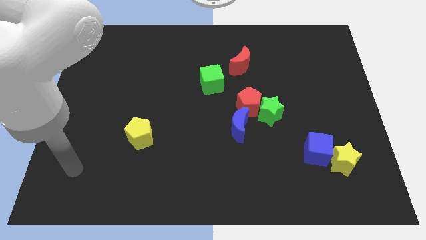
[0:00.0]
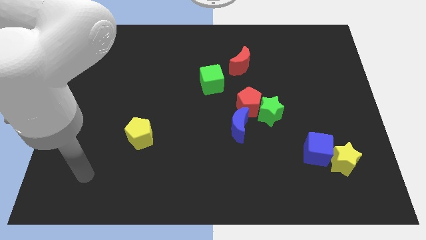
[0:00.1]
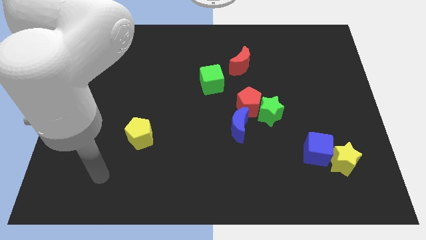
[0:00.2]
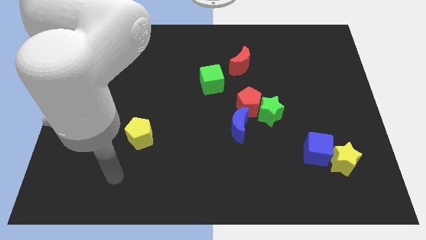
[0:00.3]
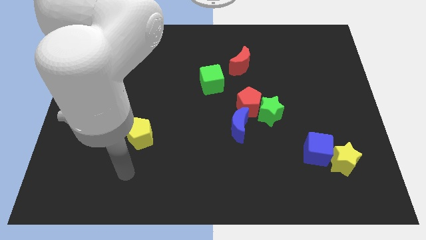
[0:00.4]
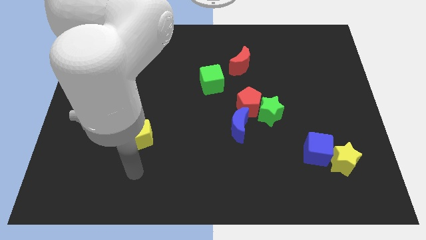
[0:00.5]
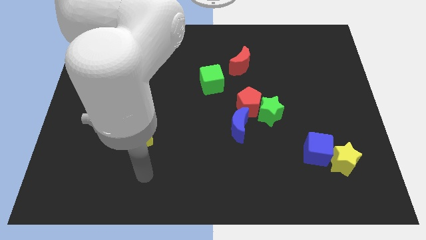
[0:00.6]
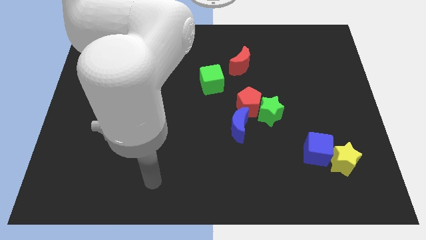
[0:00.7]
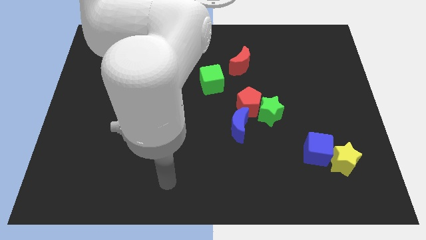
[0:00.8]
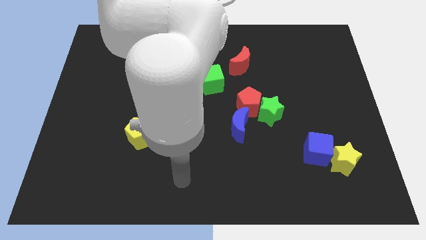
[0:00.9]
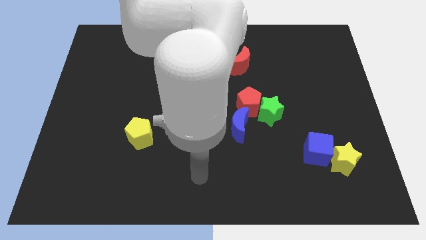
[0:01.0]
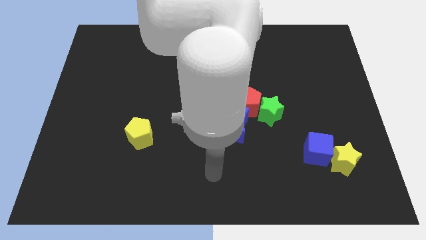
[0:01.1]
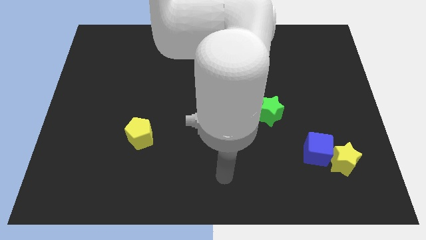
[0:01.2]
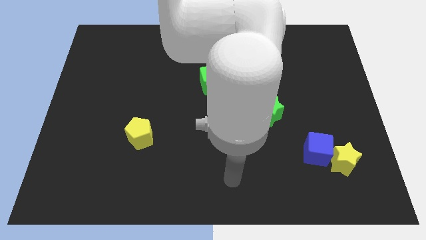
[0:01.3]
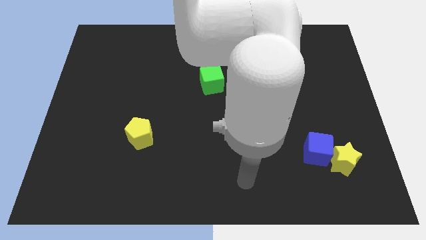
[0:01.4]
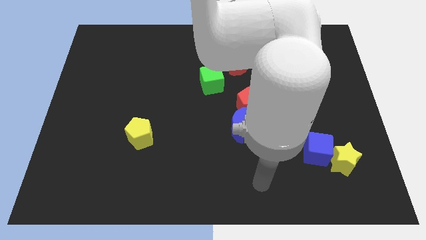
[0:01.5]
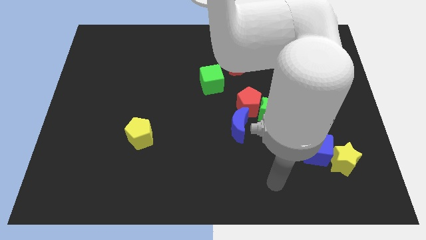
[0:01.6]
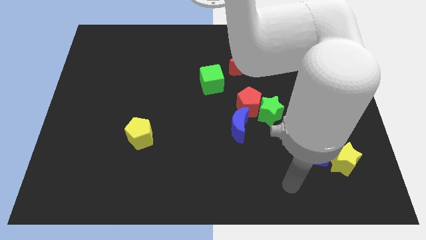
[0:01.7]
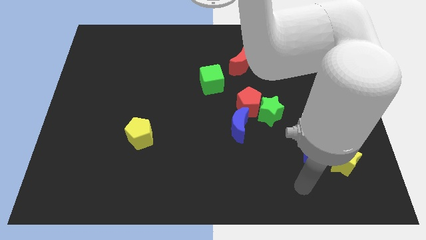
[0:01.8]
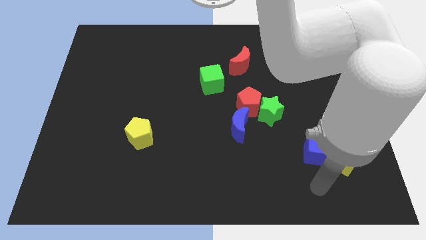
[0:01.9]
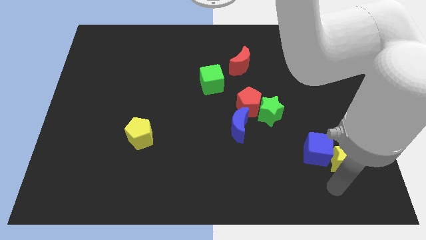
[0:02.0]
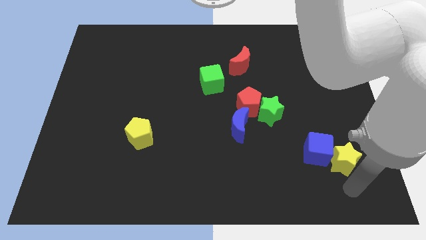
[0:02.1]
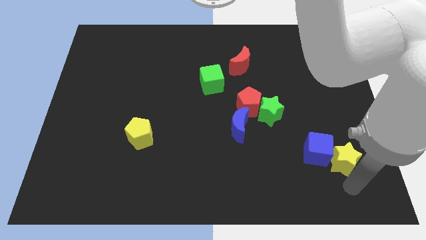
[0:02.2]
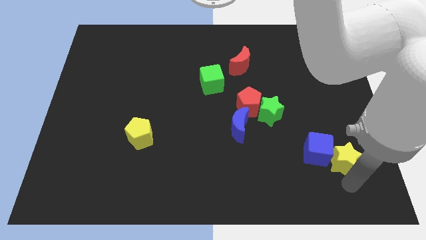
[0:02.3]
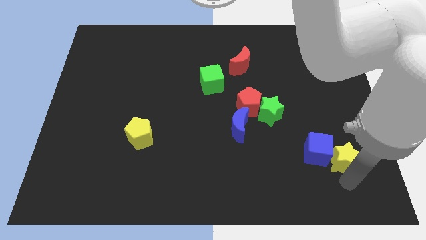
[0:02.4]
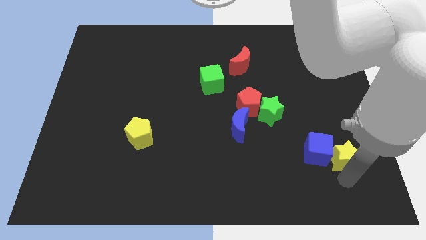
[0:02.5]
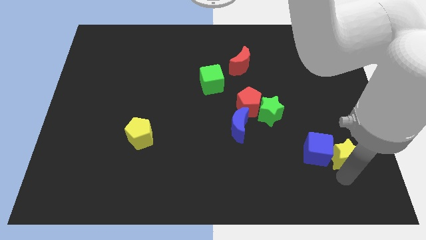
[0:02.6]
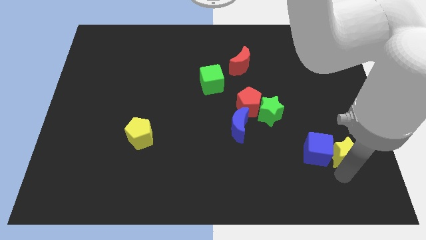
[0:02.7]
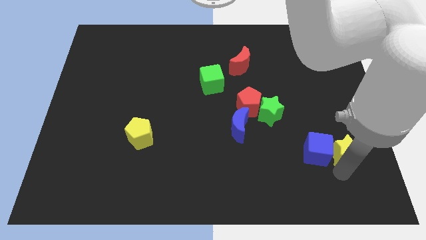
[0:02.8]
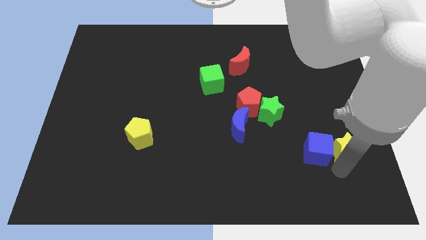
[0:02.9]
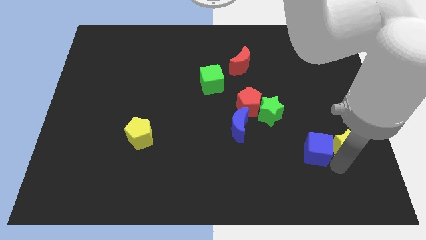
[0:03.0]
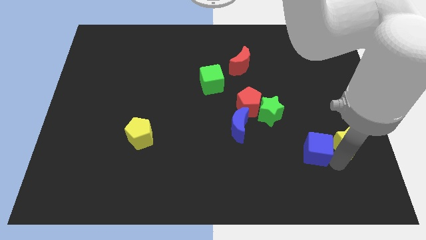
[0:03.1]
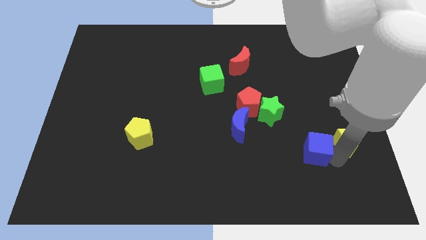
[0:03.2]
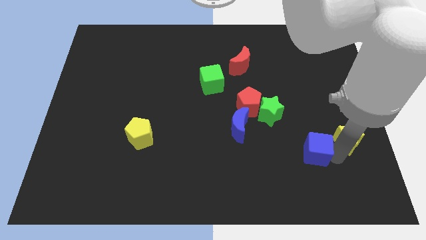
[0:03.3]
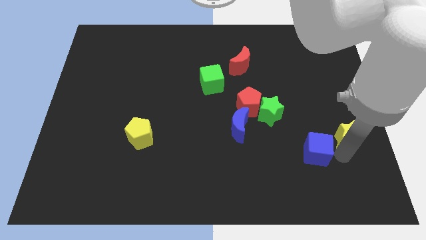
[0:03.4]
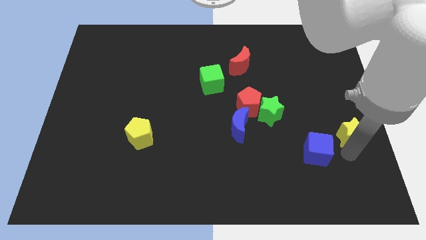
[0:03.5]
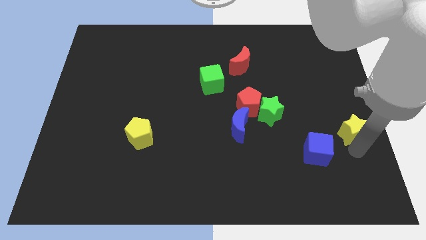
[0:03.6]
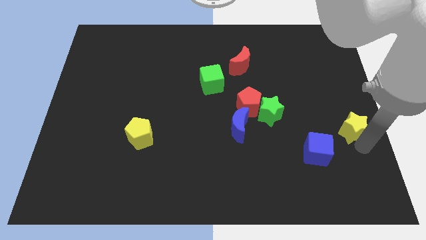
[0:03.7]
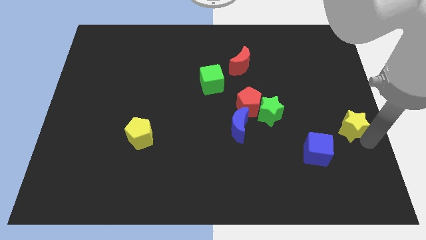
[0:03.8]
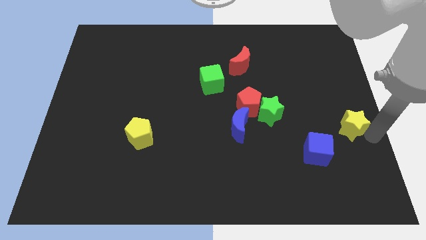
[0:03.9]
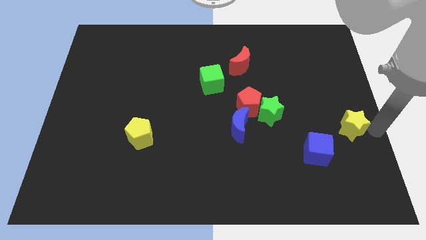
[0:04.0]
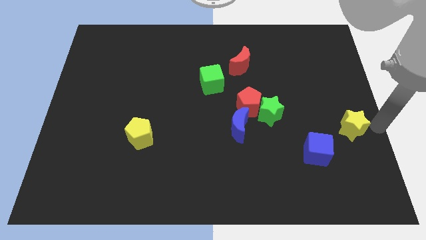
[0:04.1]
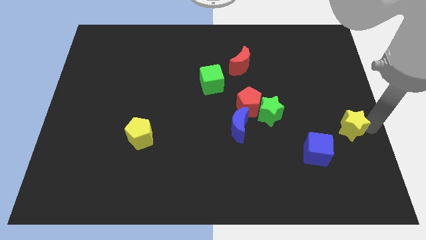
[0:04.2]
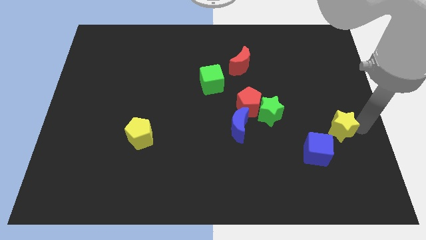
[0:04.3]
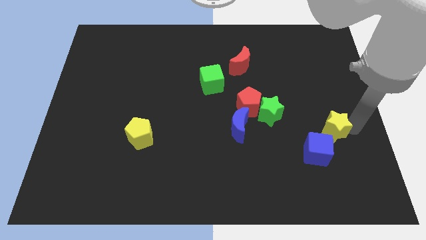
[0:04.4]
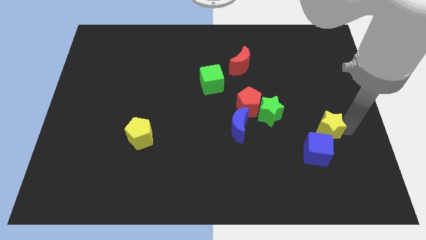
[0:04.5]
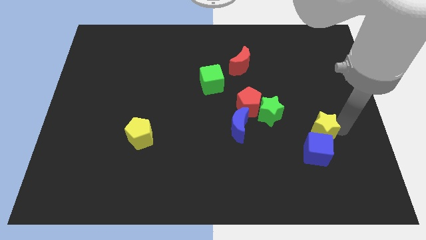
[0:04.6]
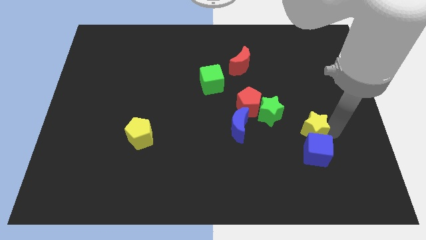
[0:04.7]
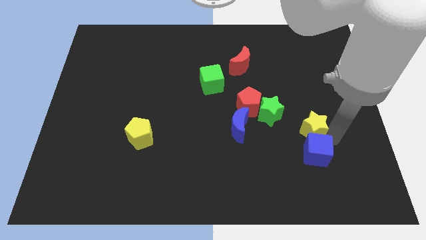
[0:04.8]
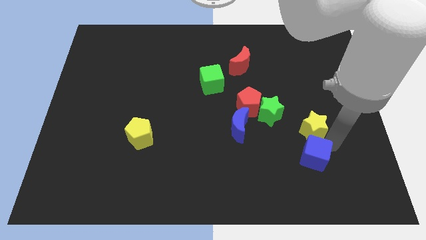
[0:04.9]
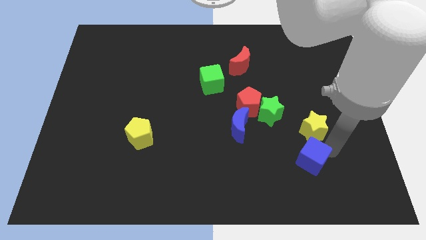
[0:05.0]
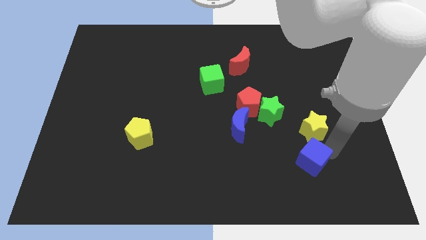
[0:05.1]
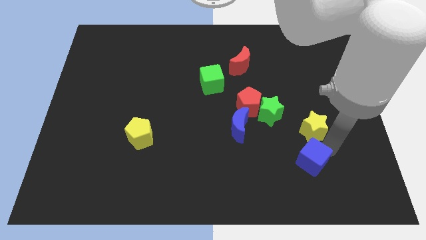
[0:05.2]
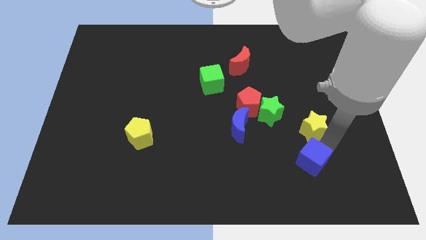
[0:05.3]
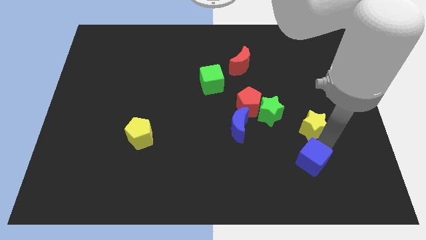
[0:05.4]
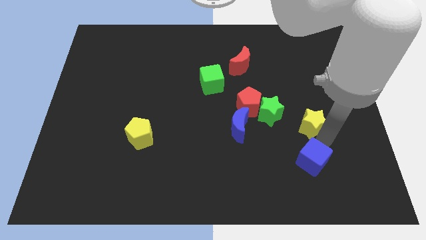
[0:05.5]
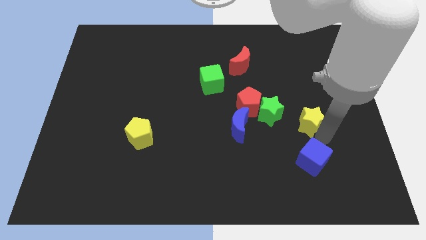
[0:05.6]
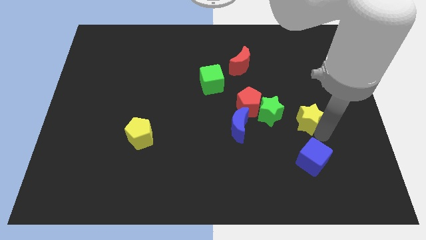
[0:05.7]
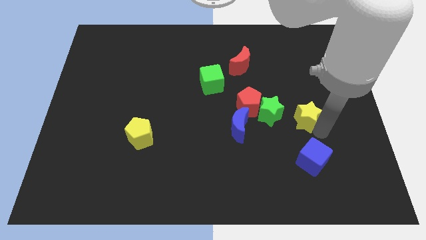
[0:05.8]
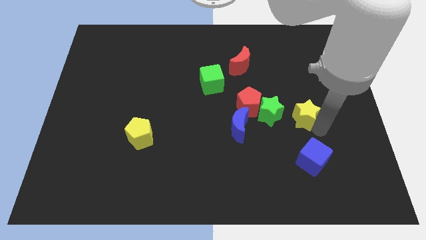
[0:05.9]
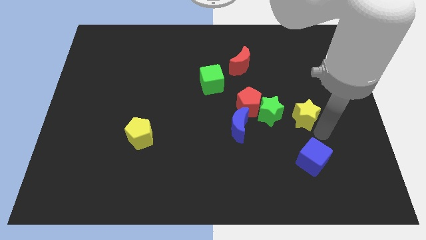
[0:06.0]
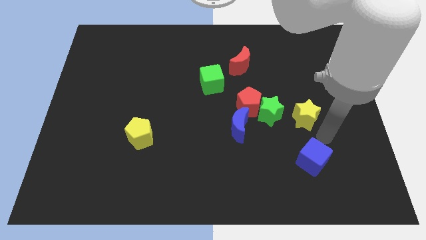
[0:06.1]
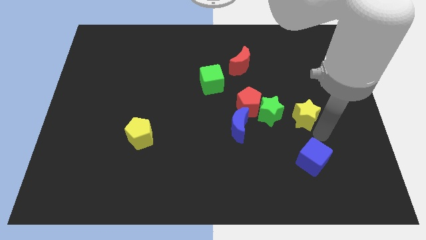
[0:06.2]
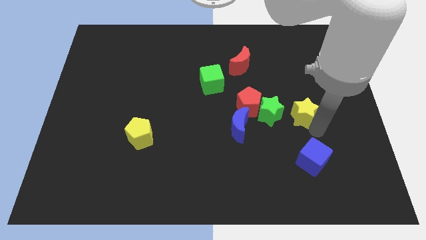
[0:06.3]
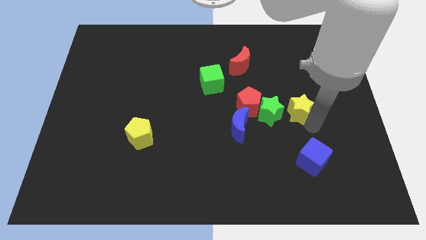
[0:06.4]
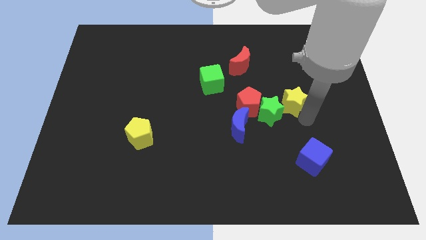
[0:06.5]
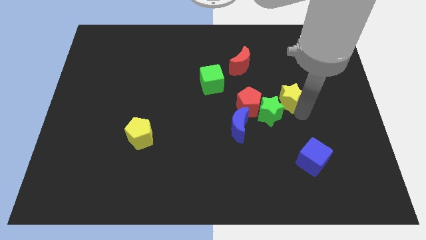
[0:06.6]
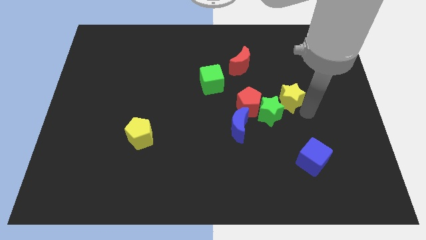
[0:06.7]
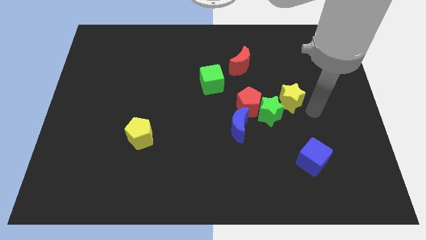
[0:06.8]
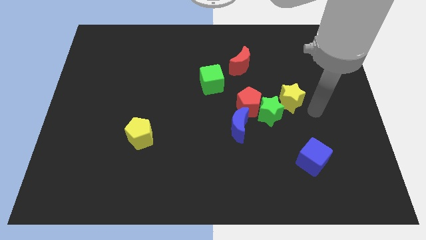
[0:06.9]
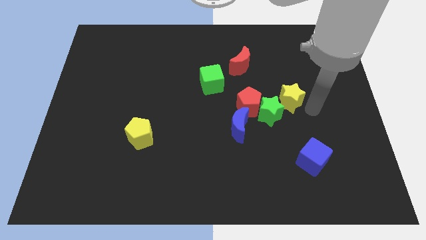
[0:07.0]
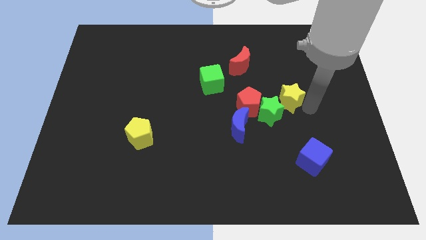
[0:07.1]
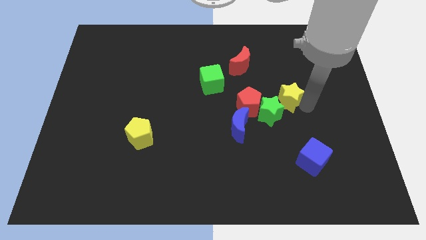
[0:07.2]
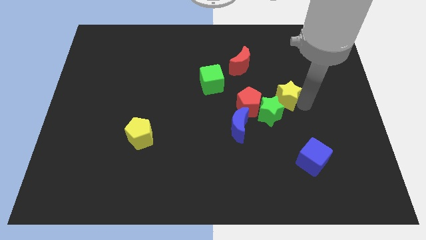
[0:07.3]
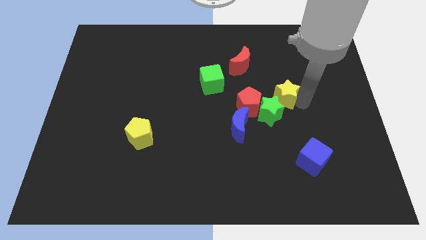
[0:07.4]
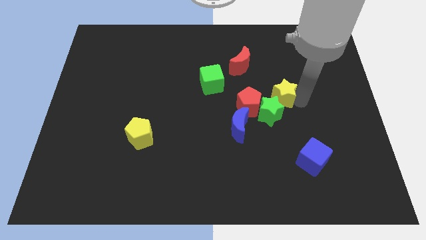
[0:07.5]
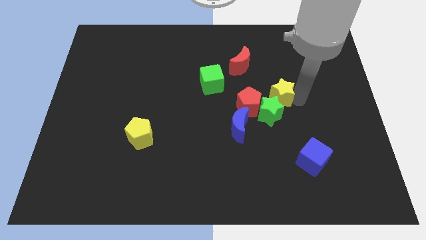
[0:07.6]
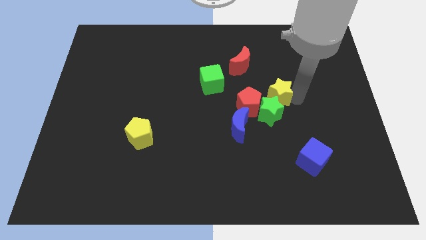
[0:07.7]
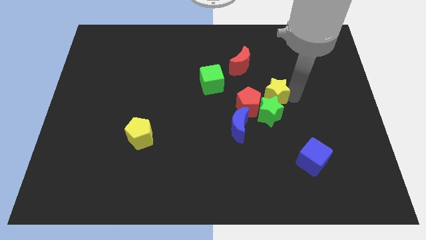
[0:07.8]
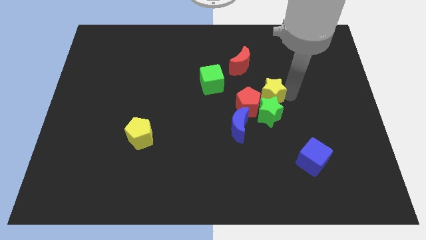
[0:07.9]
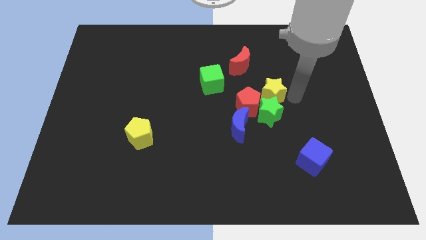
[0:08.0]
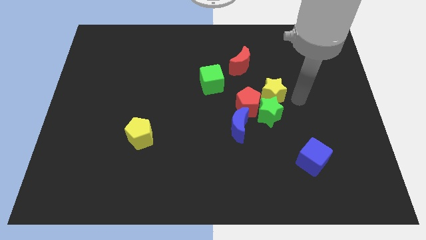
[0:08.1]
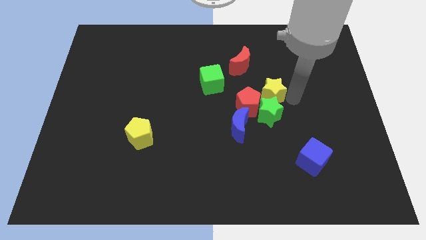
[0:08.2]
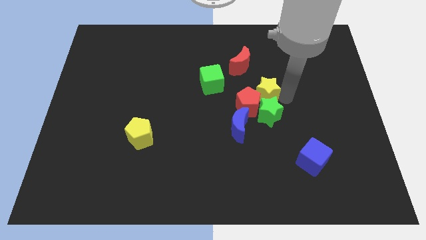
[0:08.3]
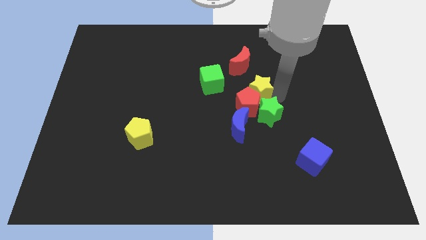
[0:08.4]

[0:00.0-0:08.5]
push the yellow star to the center of the board
